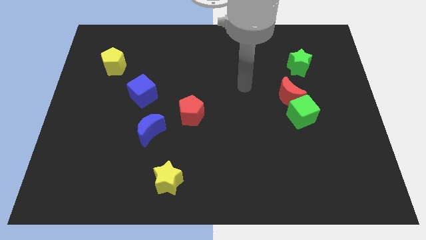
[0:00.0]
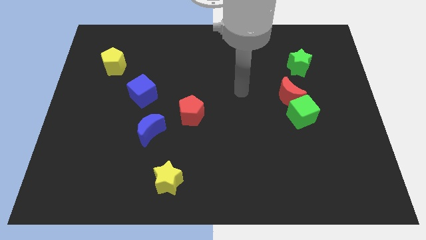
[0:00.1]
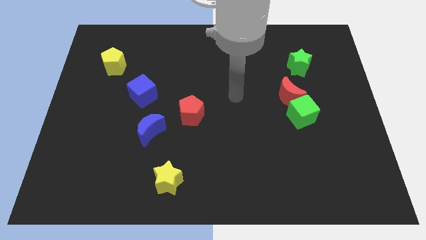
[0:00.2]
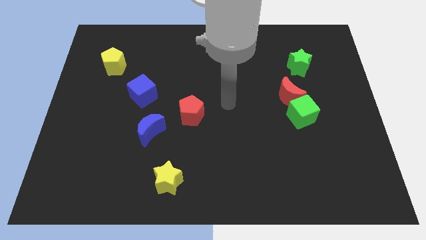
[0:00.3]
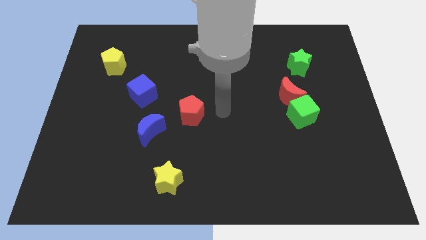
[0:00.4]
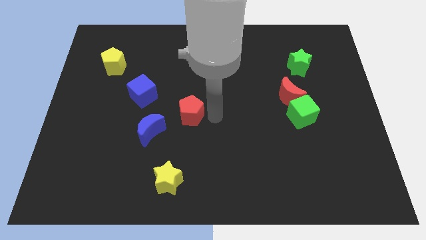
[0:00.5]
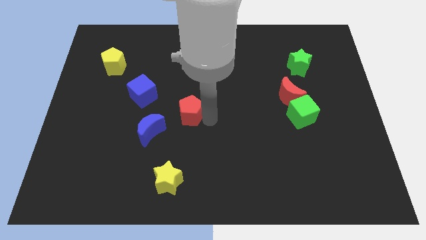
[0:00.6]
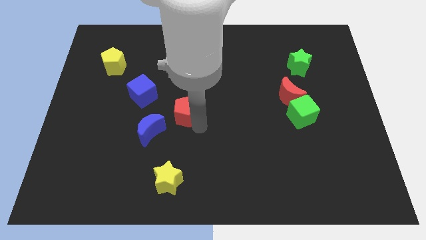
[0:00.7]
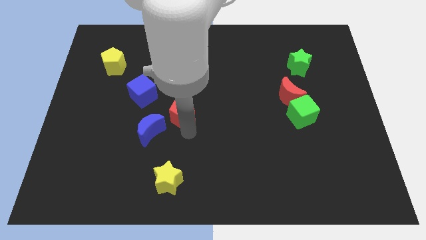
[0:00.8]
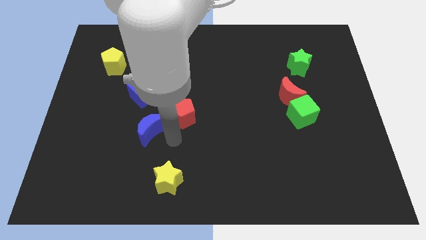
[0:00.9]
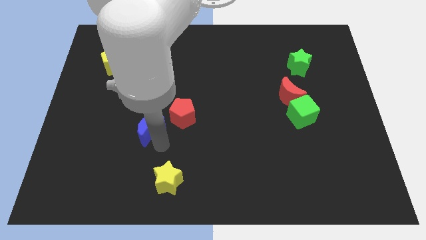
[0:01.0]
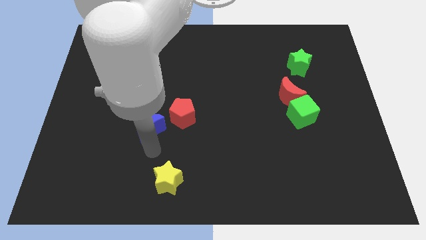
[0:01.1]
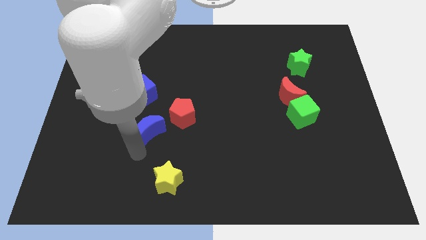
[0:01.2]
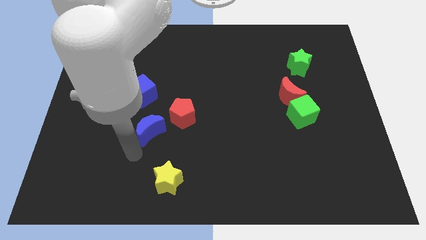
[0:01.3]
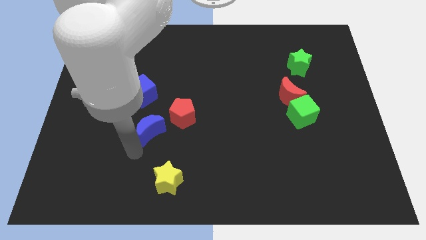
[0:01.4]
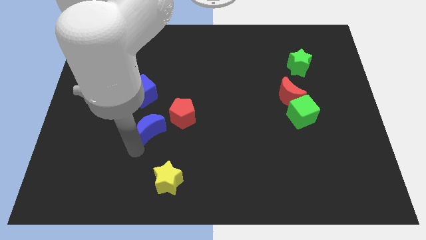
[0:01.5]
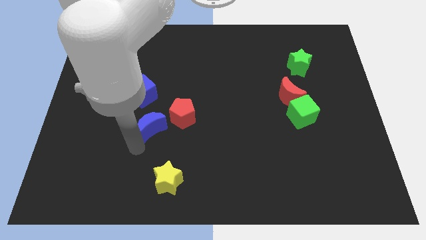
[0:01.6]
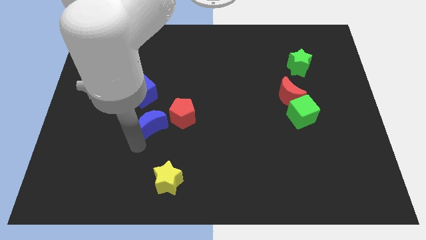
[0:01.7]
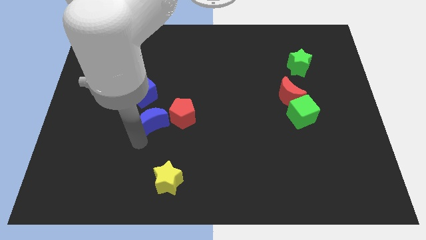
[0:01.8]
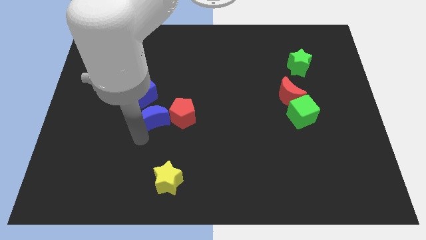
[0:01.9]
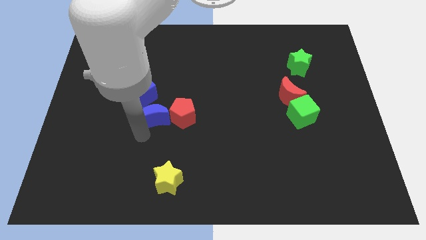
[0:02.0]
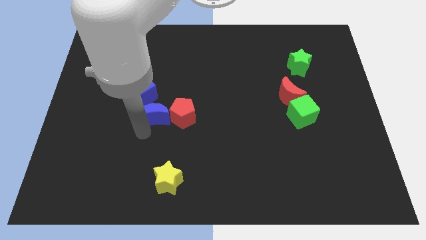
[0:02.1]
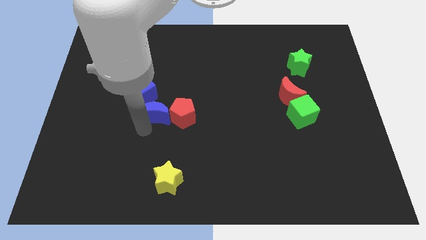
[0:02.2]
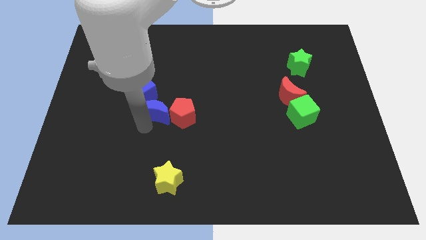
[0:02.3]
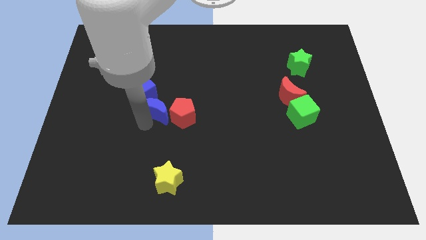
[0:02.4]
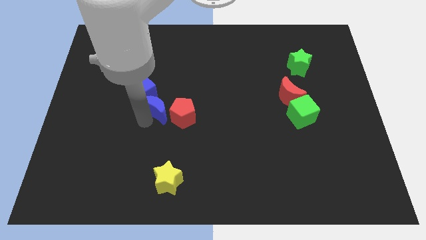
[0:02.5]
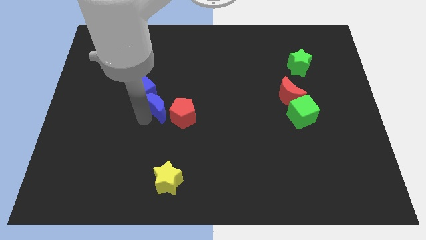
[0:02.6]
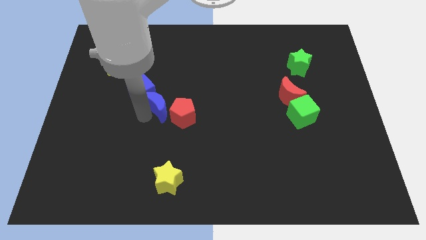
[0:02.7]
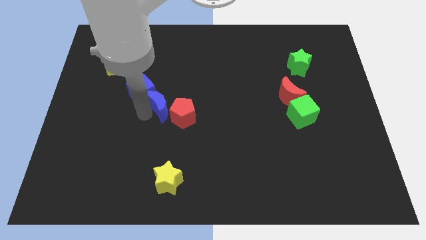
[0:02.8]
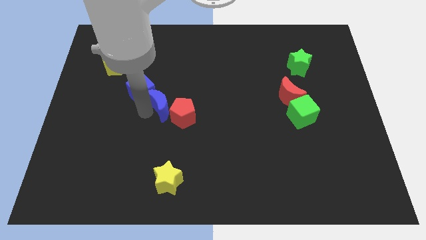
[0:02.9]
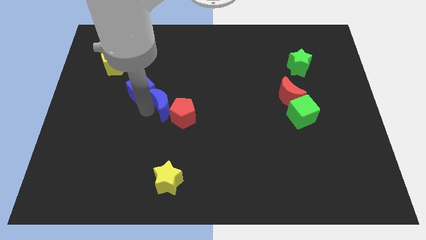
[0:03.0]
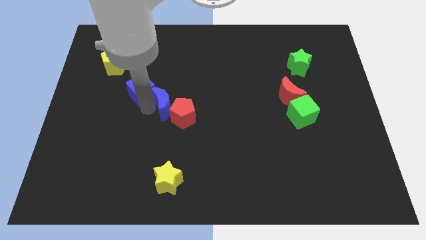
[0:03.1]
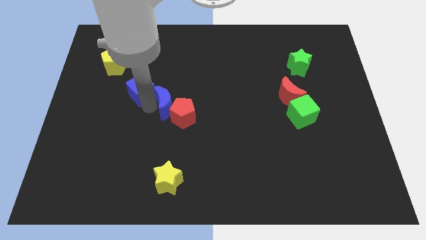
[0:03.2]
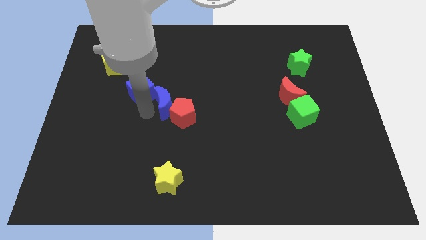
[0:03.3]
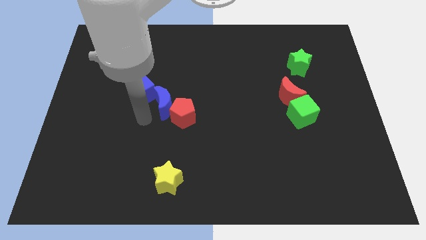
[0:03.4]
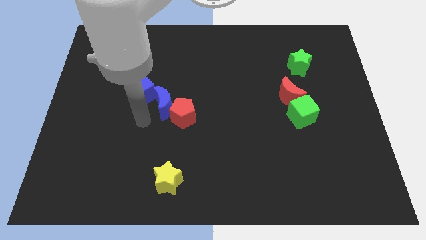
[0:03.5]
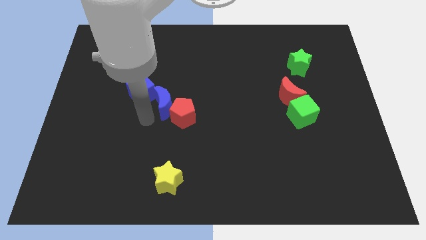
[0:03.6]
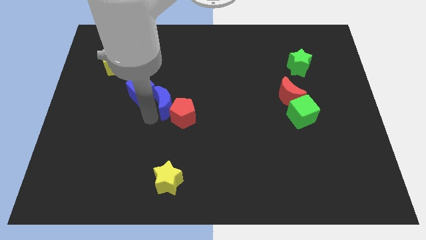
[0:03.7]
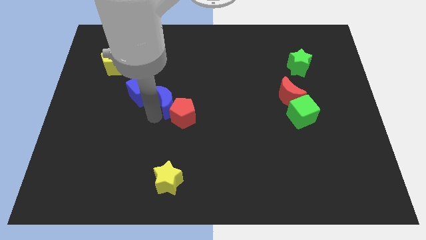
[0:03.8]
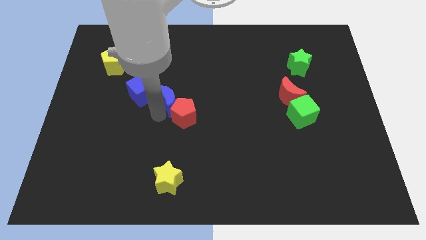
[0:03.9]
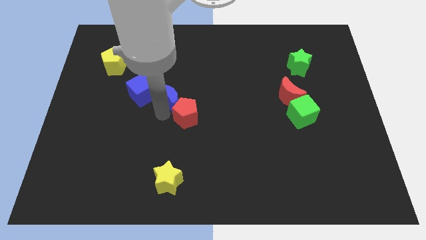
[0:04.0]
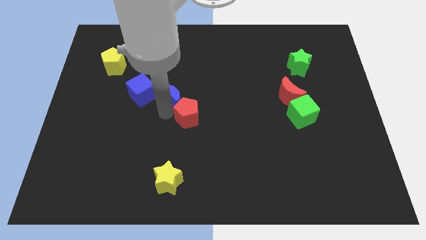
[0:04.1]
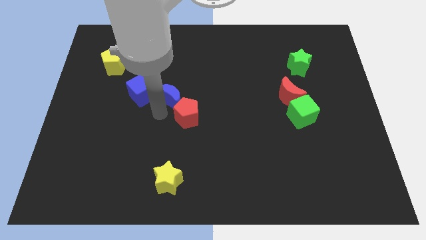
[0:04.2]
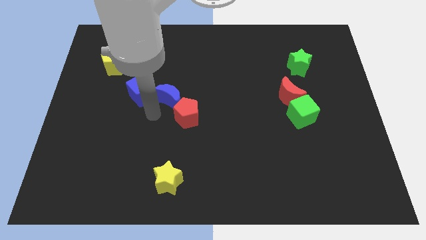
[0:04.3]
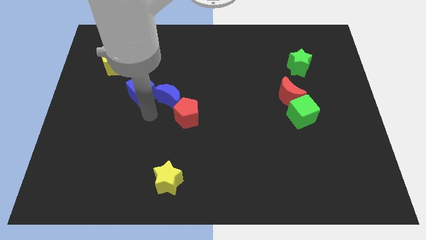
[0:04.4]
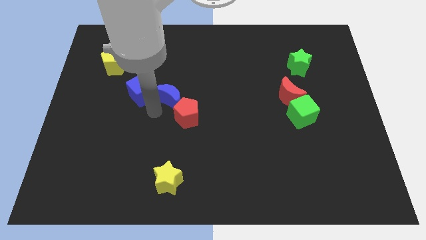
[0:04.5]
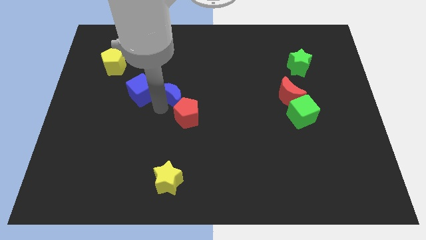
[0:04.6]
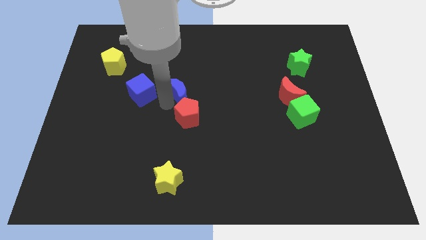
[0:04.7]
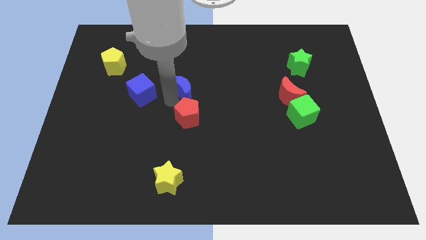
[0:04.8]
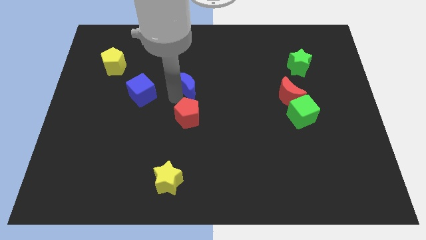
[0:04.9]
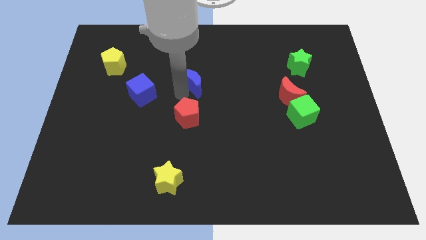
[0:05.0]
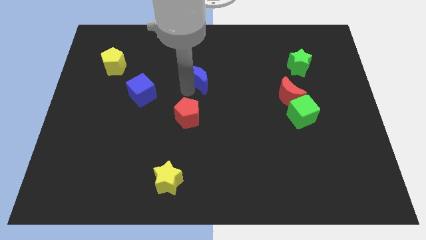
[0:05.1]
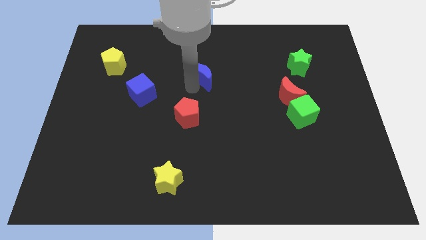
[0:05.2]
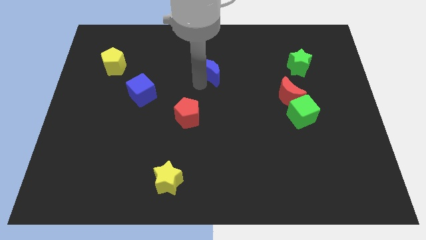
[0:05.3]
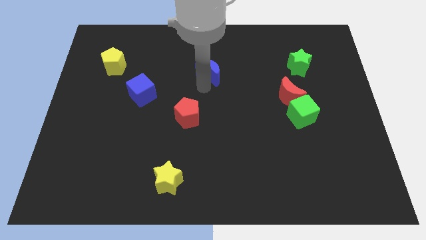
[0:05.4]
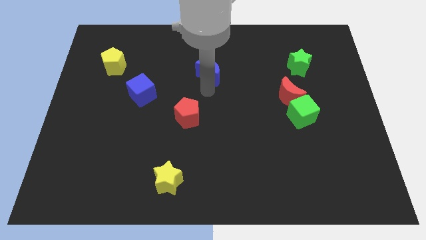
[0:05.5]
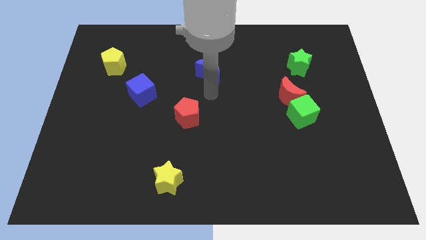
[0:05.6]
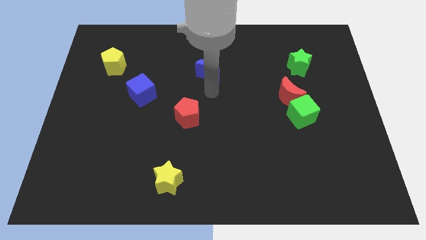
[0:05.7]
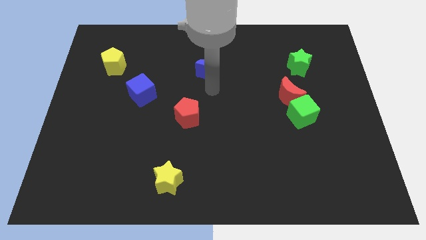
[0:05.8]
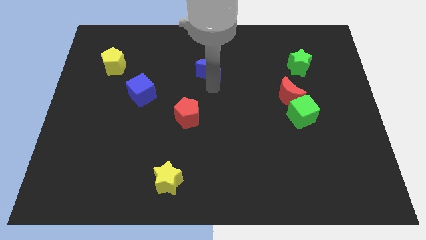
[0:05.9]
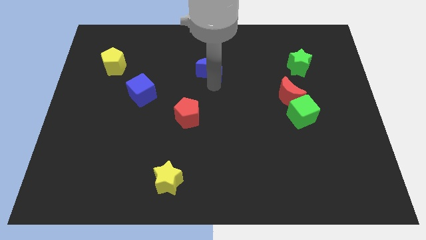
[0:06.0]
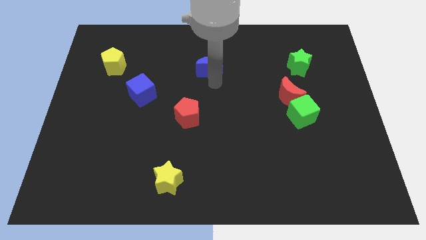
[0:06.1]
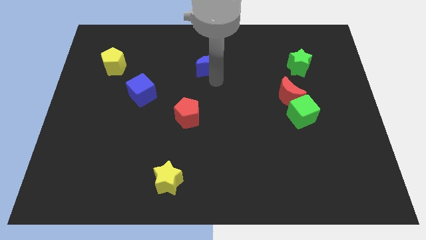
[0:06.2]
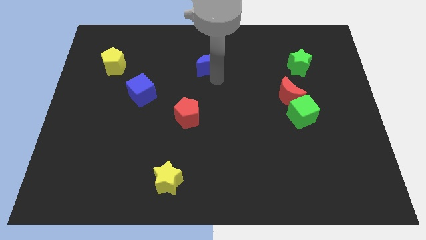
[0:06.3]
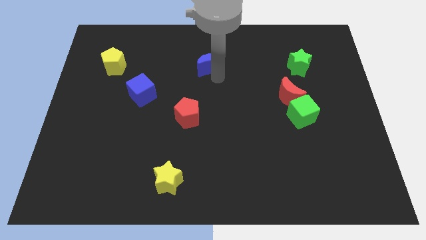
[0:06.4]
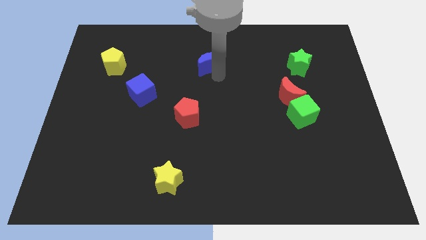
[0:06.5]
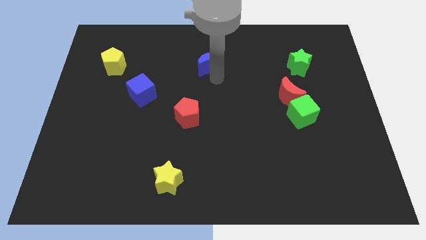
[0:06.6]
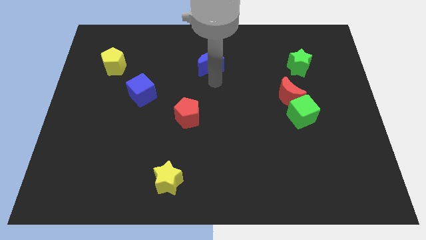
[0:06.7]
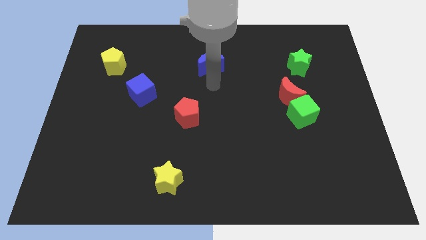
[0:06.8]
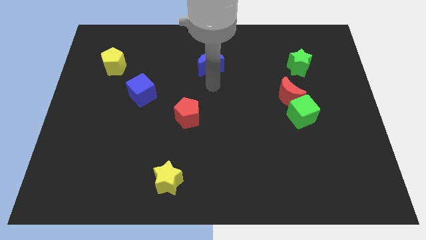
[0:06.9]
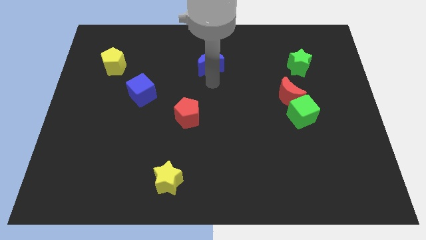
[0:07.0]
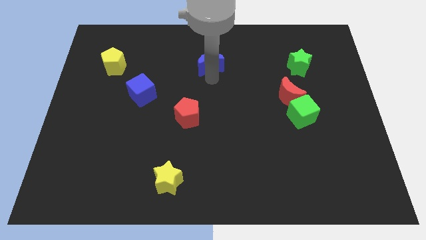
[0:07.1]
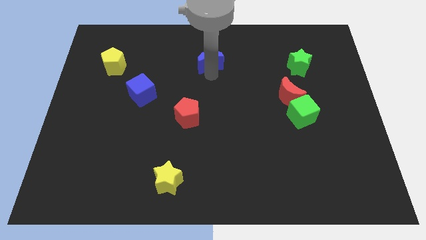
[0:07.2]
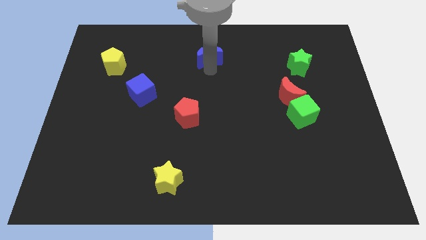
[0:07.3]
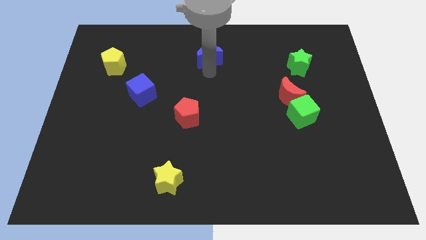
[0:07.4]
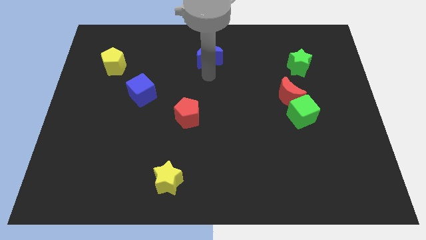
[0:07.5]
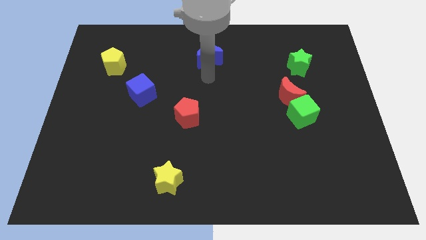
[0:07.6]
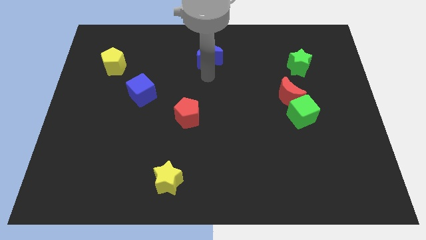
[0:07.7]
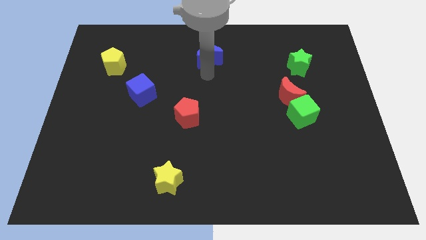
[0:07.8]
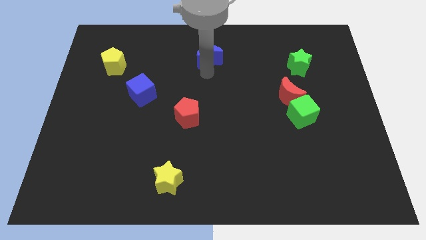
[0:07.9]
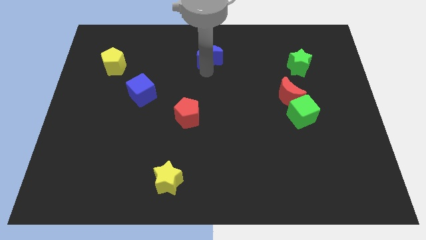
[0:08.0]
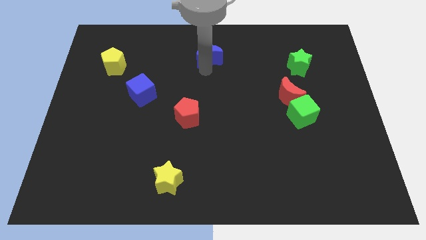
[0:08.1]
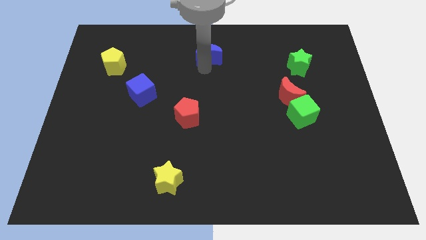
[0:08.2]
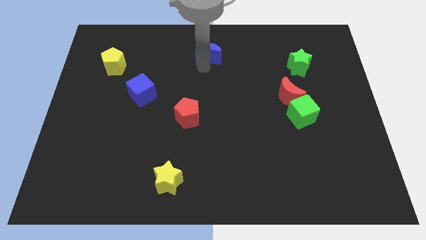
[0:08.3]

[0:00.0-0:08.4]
slide the blue moon to the top side
